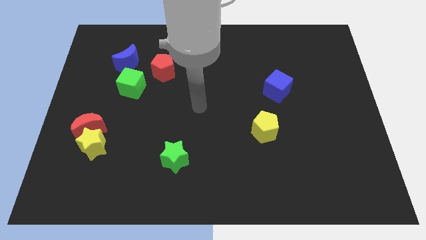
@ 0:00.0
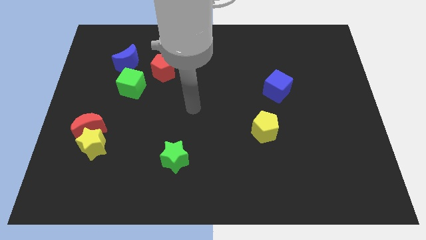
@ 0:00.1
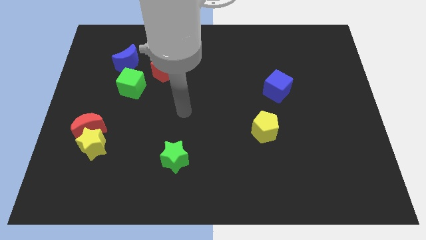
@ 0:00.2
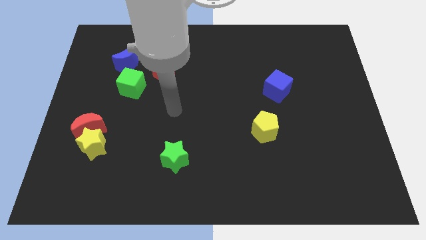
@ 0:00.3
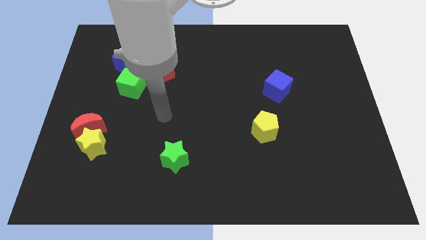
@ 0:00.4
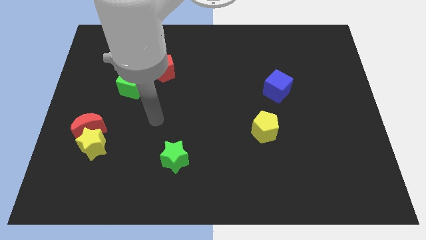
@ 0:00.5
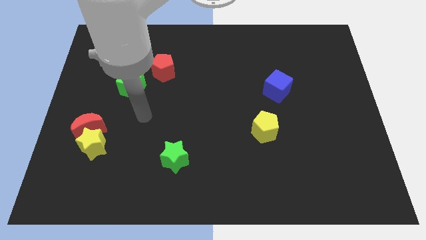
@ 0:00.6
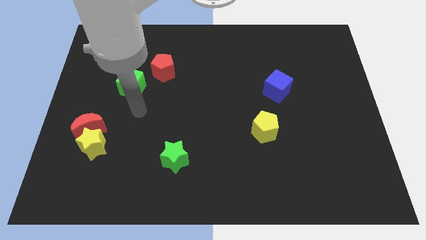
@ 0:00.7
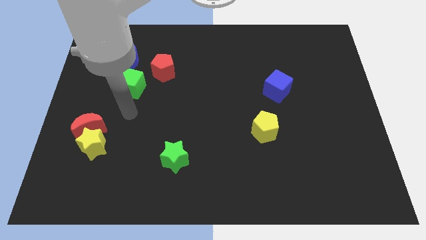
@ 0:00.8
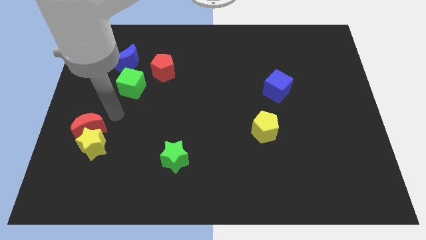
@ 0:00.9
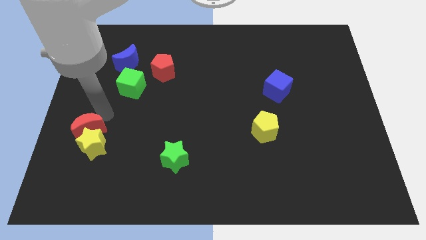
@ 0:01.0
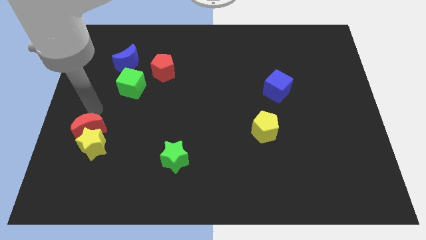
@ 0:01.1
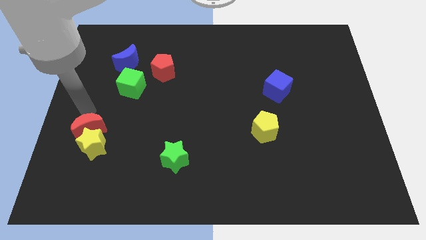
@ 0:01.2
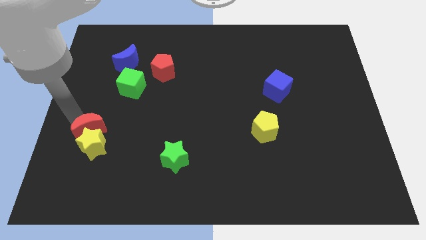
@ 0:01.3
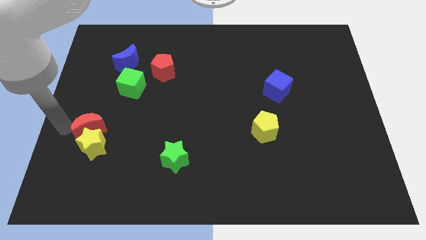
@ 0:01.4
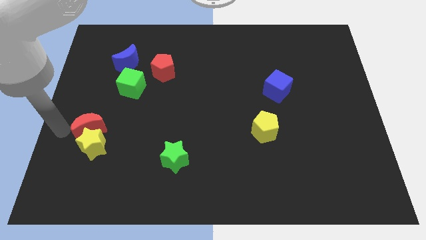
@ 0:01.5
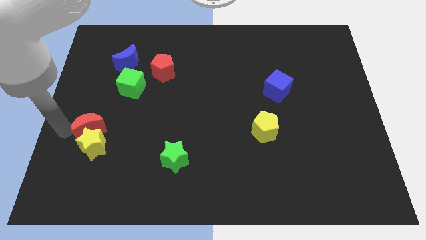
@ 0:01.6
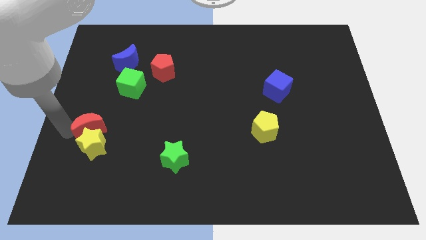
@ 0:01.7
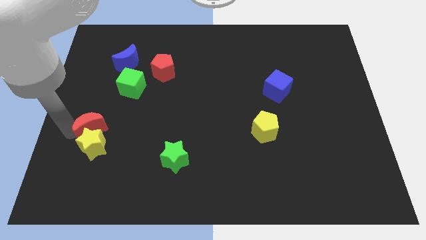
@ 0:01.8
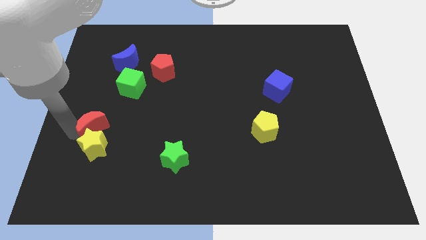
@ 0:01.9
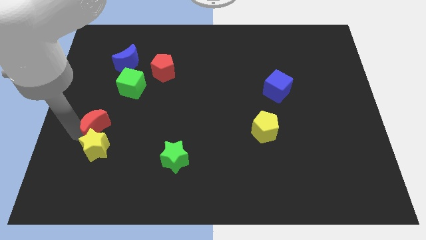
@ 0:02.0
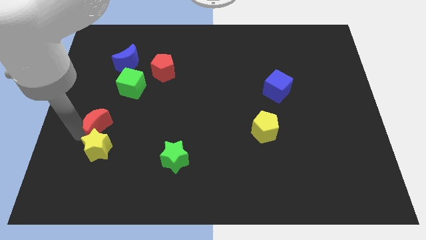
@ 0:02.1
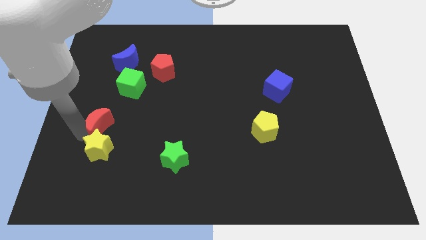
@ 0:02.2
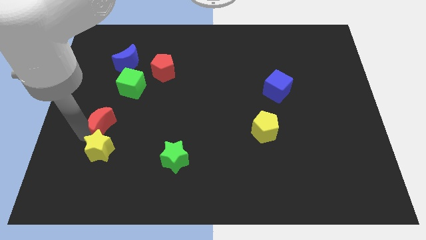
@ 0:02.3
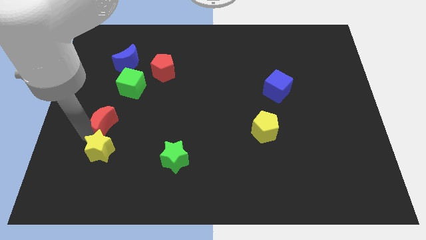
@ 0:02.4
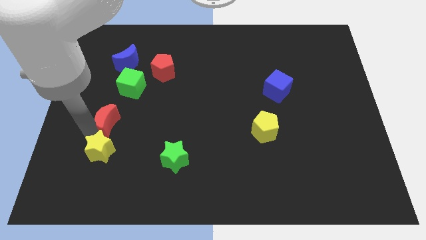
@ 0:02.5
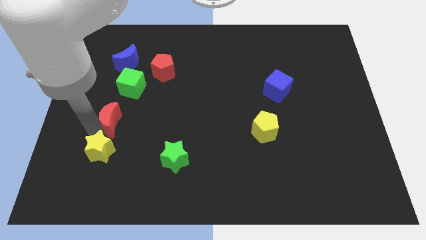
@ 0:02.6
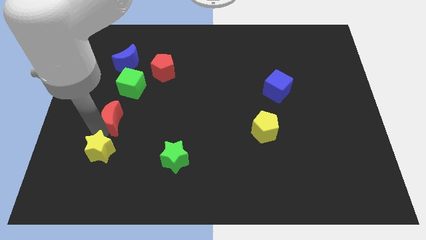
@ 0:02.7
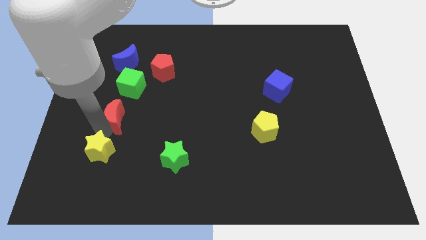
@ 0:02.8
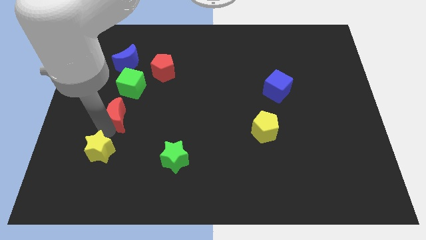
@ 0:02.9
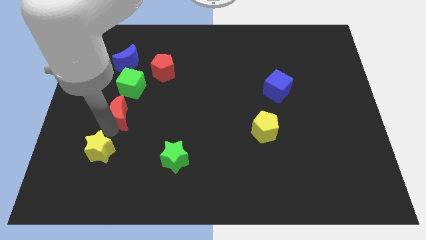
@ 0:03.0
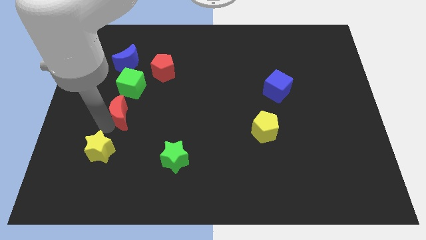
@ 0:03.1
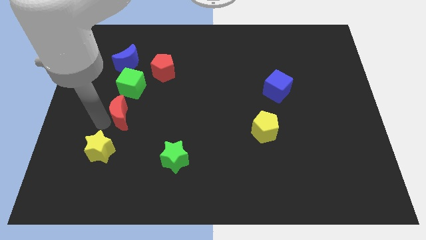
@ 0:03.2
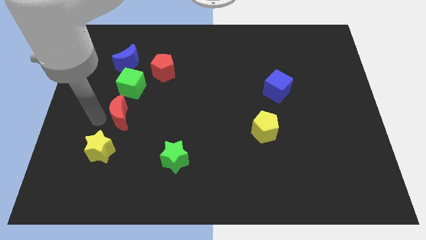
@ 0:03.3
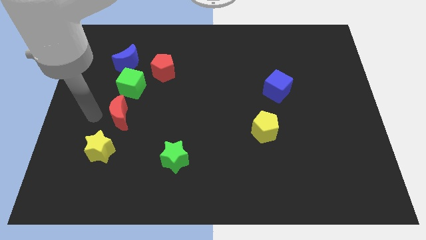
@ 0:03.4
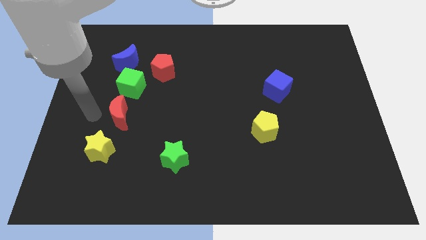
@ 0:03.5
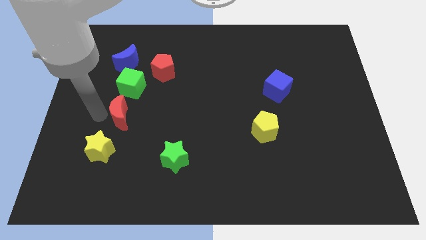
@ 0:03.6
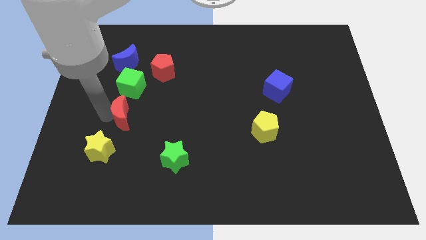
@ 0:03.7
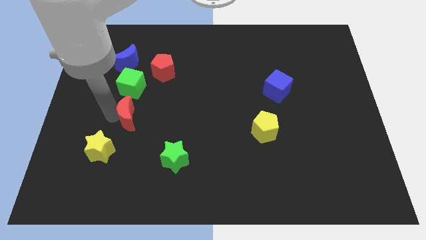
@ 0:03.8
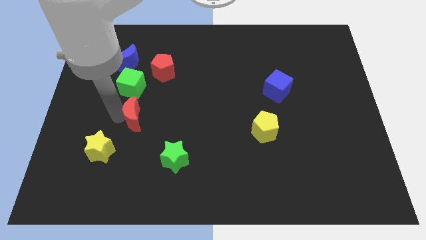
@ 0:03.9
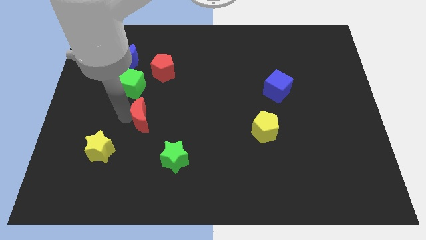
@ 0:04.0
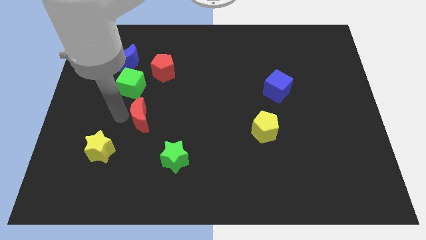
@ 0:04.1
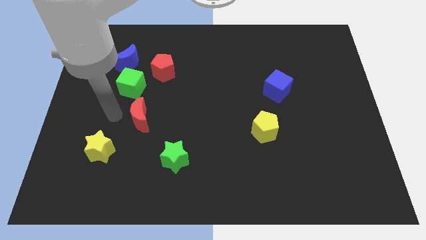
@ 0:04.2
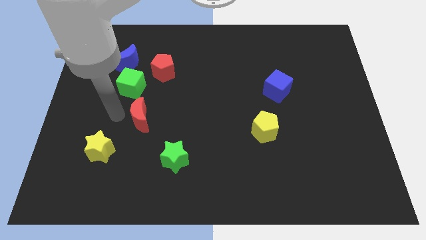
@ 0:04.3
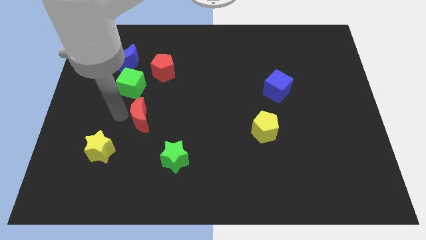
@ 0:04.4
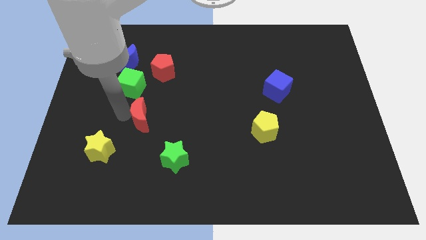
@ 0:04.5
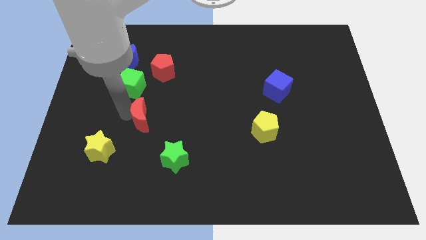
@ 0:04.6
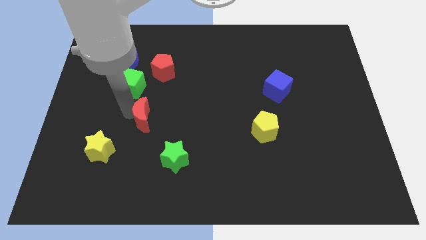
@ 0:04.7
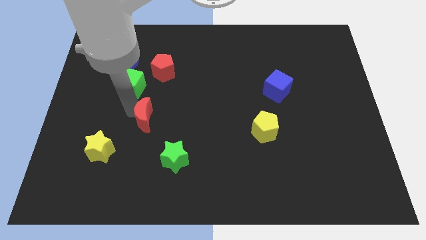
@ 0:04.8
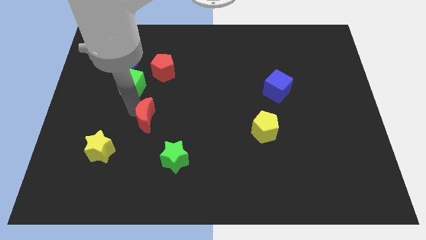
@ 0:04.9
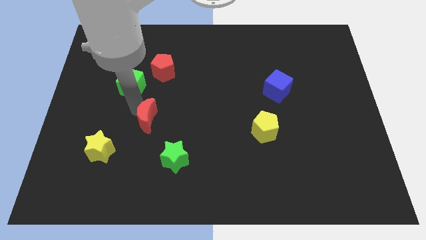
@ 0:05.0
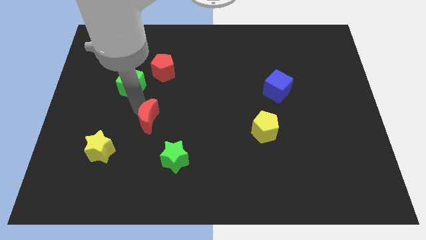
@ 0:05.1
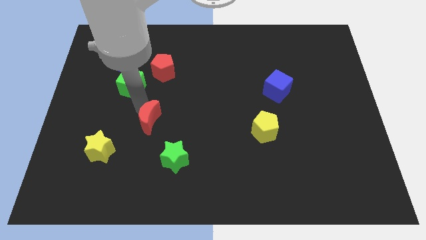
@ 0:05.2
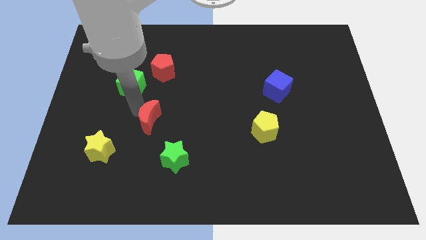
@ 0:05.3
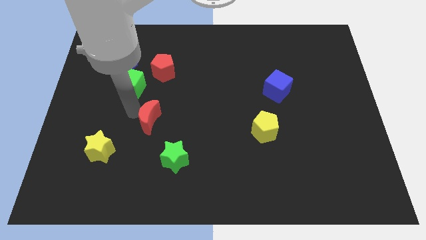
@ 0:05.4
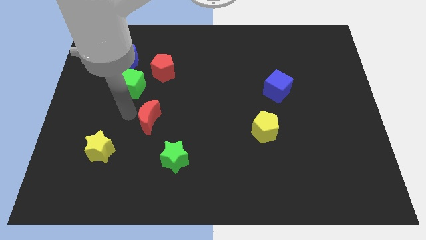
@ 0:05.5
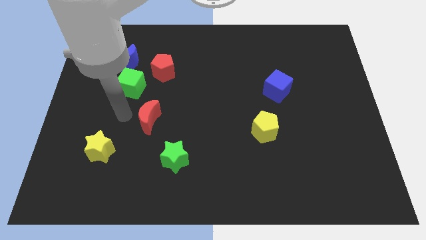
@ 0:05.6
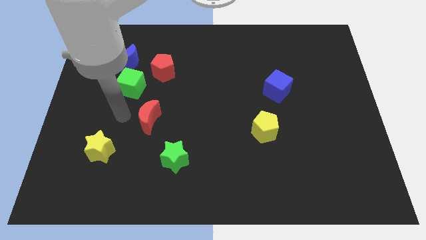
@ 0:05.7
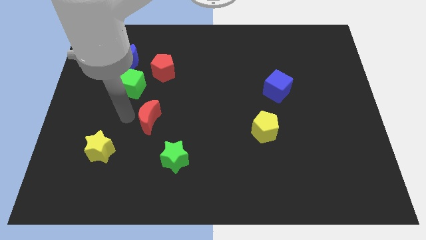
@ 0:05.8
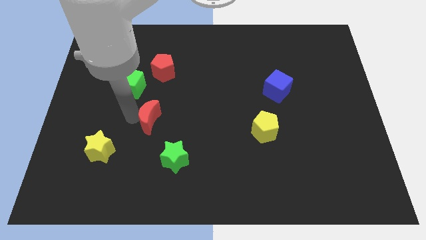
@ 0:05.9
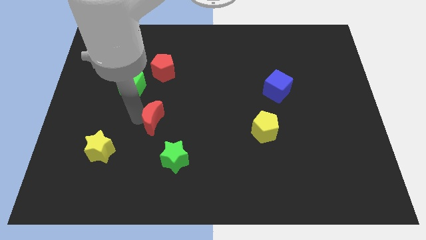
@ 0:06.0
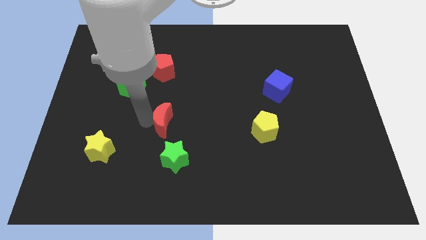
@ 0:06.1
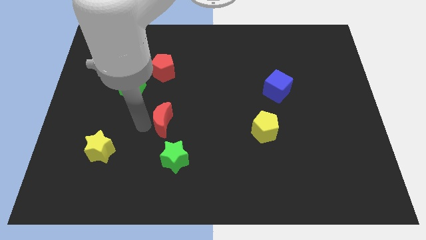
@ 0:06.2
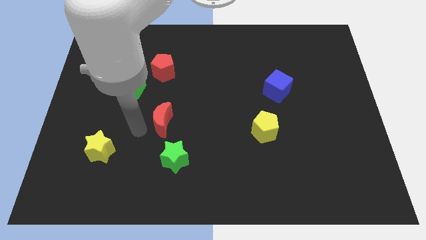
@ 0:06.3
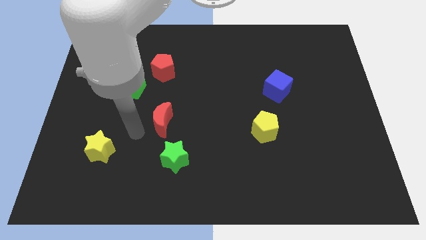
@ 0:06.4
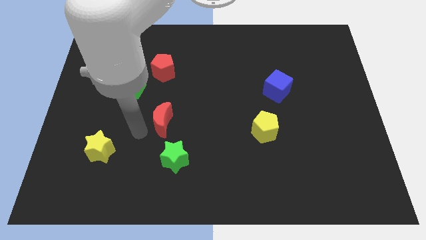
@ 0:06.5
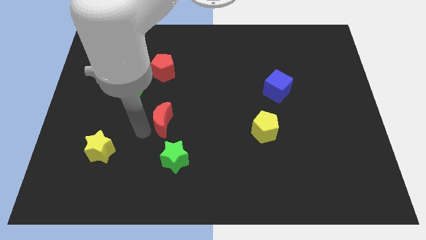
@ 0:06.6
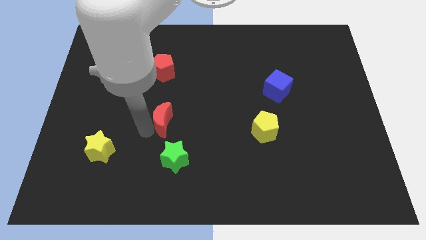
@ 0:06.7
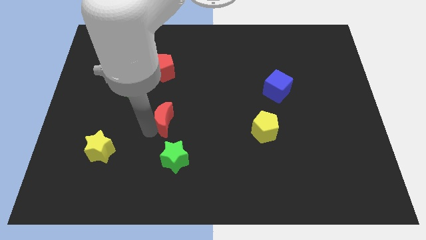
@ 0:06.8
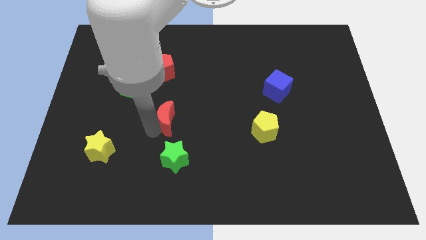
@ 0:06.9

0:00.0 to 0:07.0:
move the red moon to the center of the board
